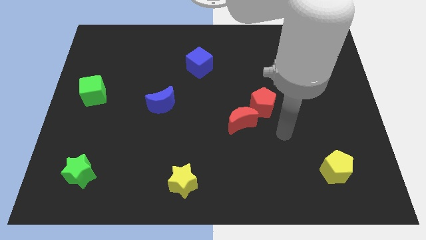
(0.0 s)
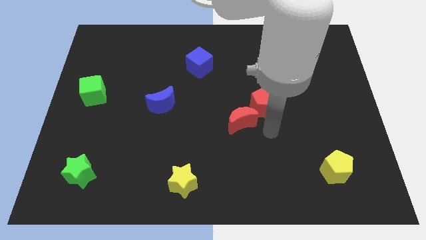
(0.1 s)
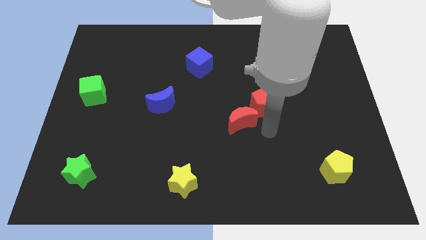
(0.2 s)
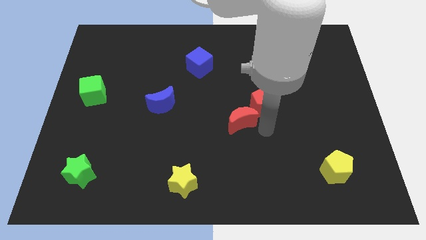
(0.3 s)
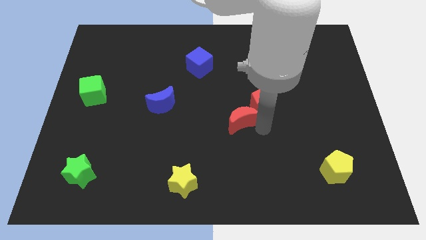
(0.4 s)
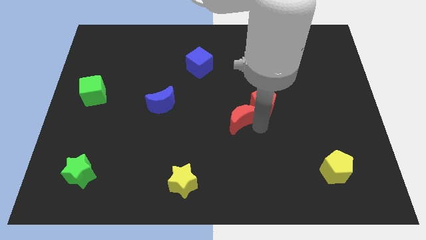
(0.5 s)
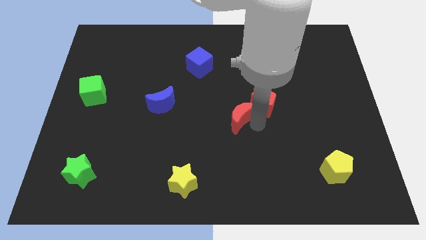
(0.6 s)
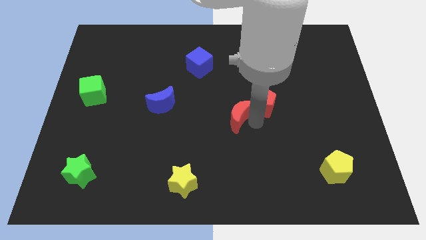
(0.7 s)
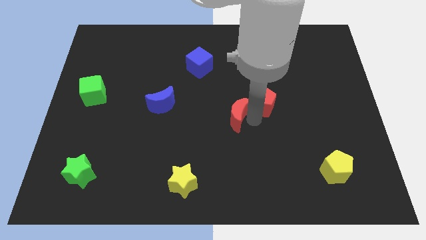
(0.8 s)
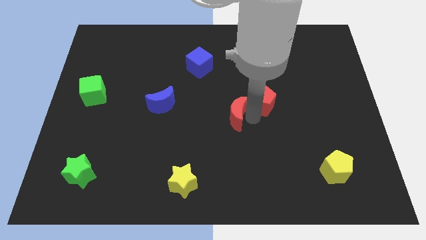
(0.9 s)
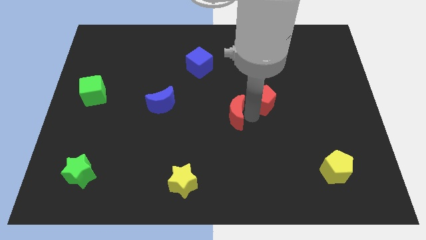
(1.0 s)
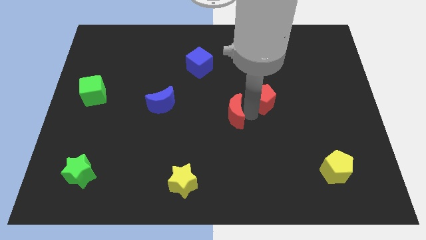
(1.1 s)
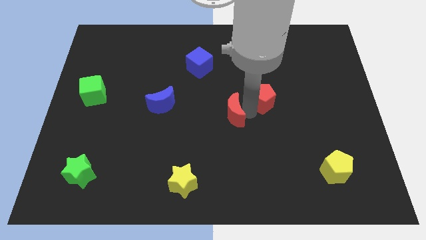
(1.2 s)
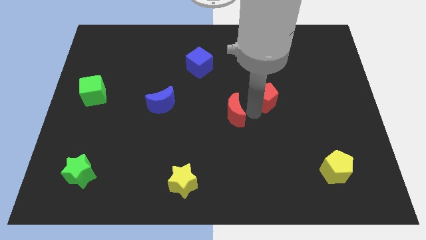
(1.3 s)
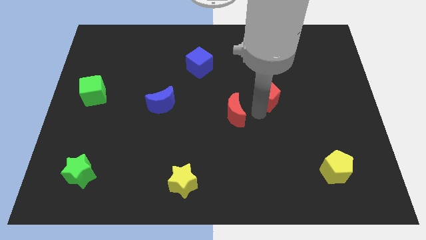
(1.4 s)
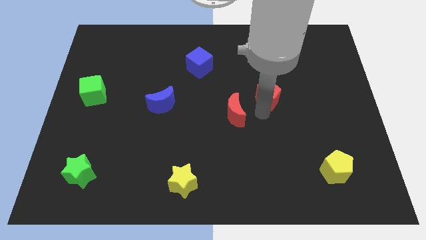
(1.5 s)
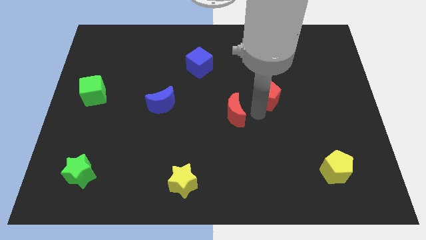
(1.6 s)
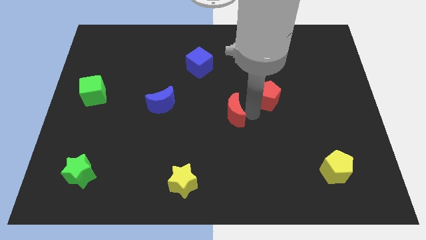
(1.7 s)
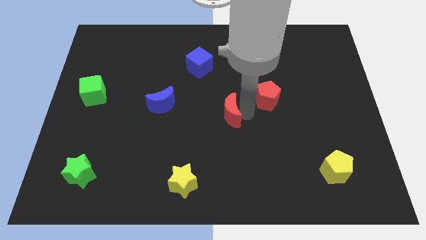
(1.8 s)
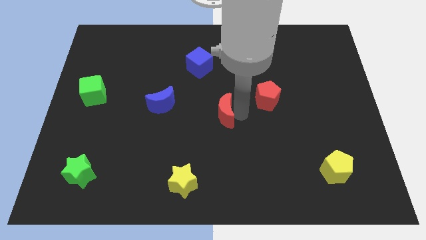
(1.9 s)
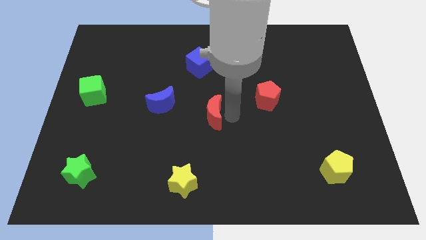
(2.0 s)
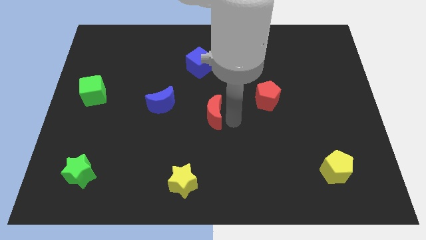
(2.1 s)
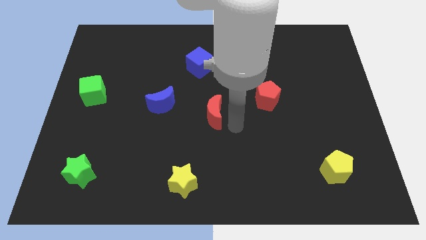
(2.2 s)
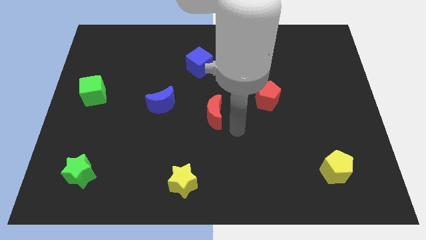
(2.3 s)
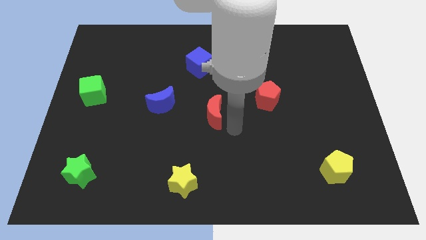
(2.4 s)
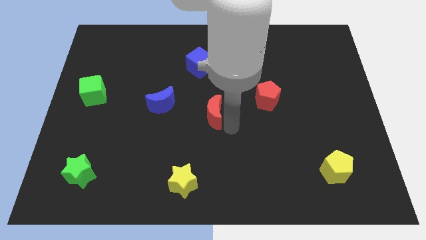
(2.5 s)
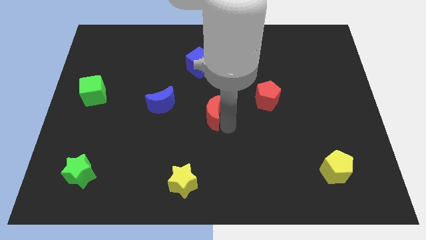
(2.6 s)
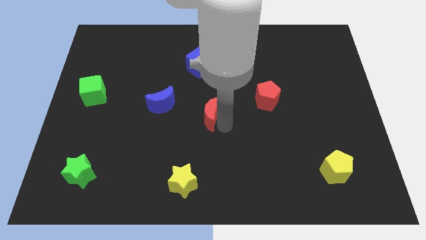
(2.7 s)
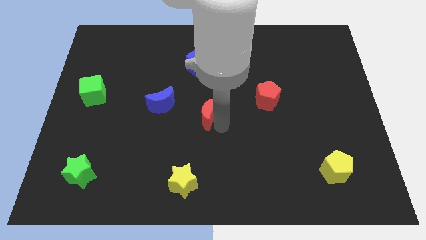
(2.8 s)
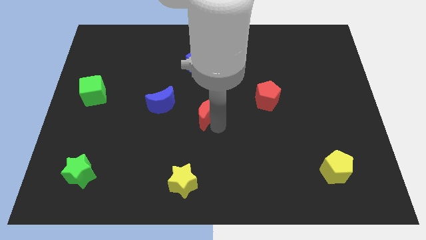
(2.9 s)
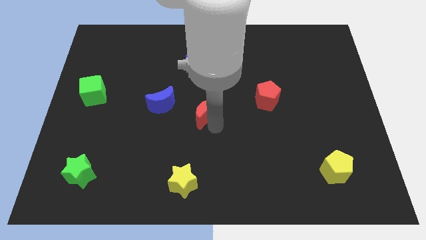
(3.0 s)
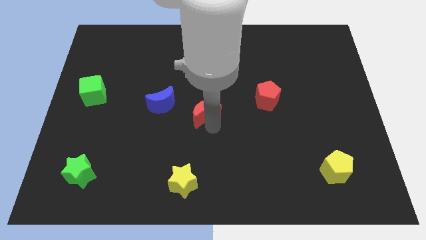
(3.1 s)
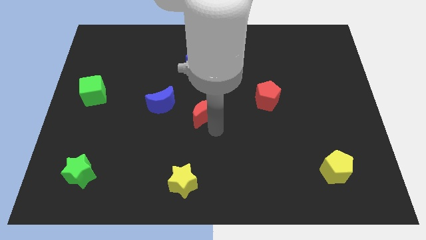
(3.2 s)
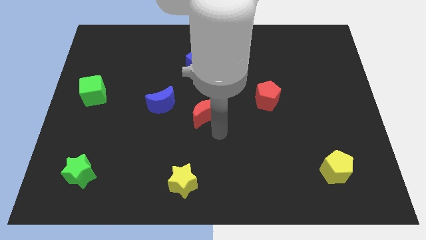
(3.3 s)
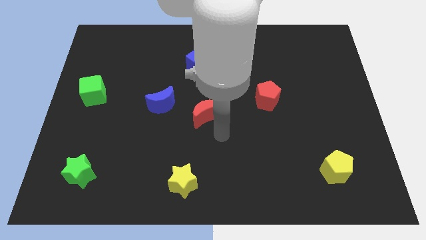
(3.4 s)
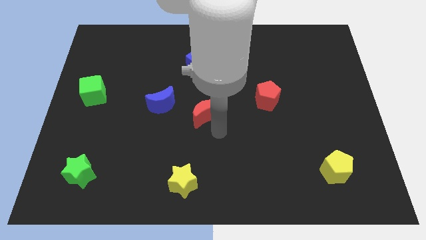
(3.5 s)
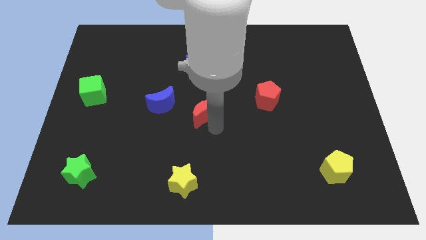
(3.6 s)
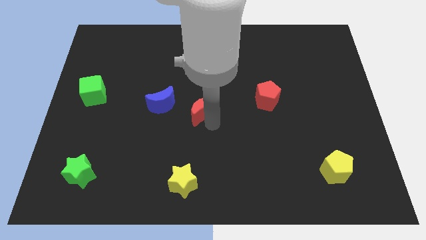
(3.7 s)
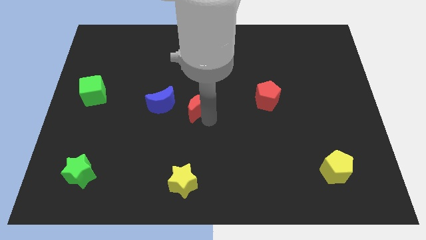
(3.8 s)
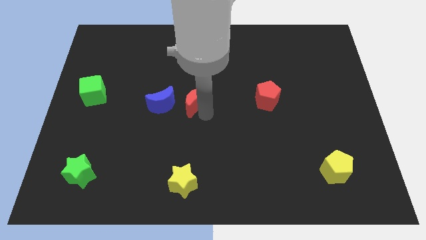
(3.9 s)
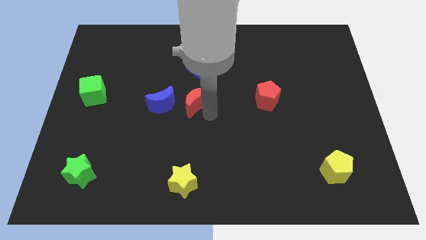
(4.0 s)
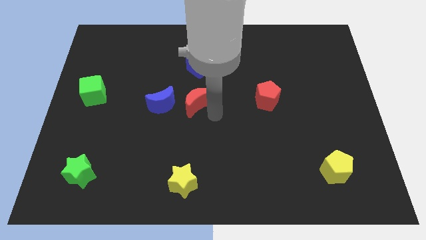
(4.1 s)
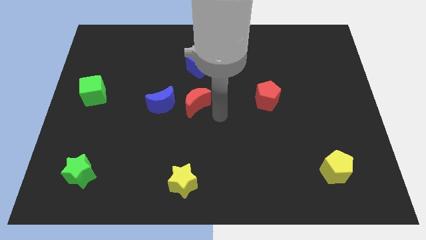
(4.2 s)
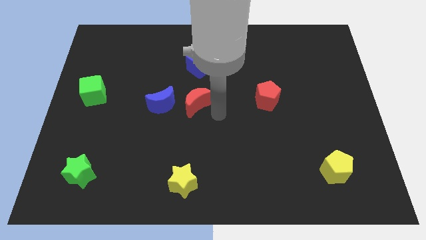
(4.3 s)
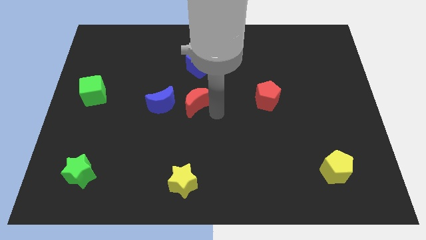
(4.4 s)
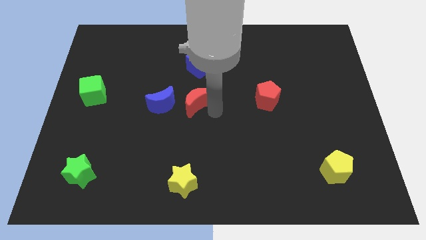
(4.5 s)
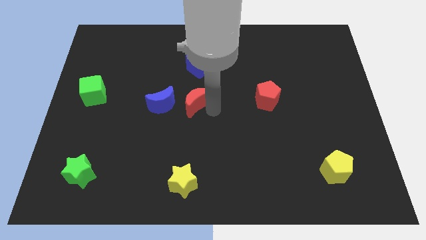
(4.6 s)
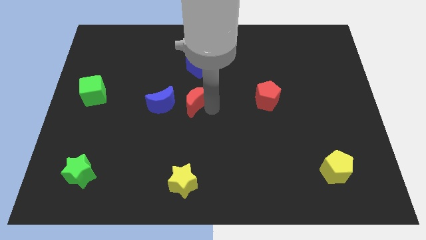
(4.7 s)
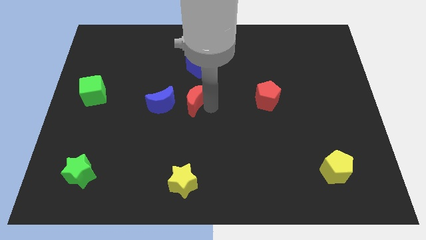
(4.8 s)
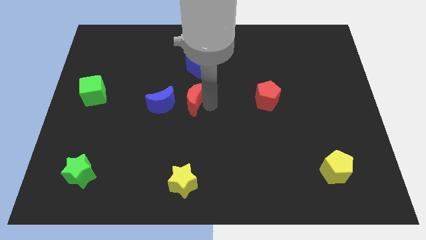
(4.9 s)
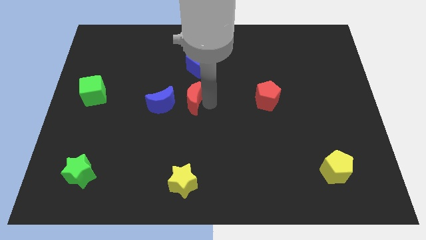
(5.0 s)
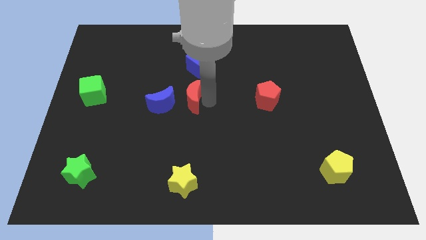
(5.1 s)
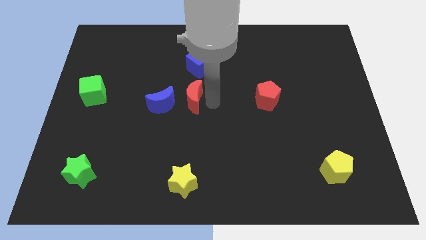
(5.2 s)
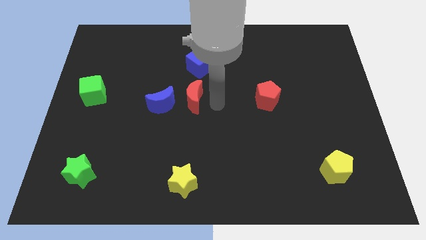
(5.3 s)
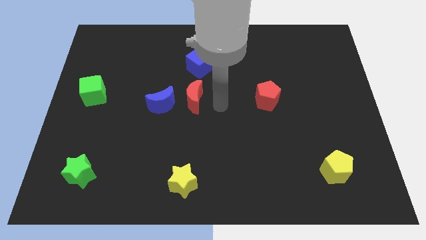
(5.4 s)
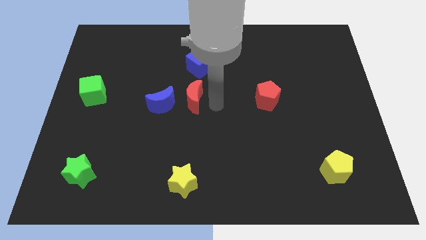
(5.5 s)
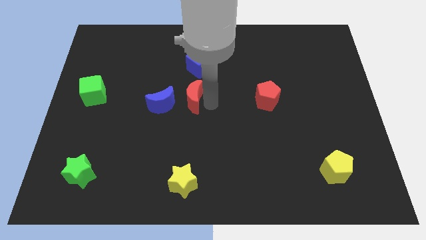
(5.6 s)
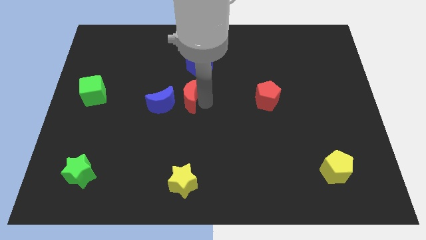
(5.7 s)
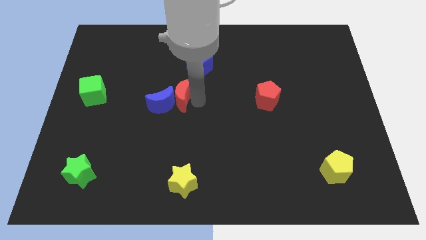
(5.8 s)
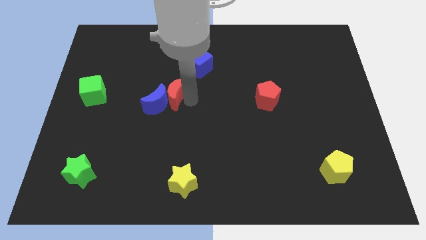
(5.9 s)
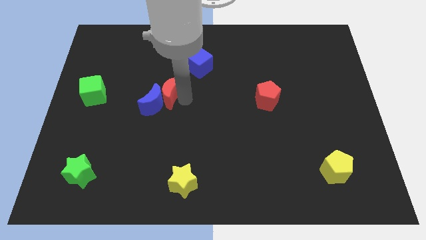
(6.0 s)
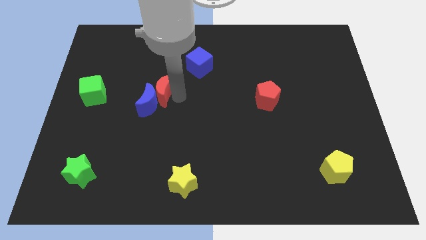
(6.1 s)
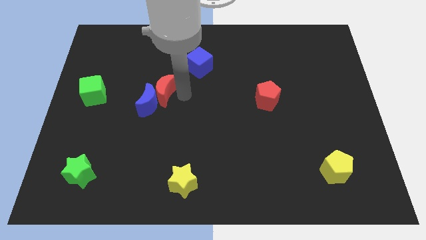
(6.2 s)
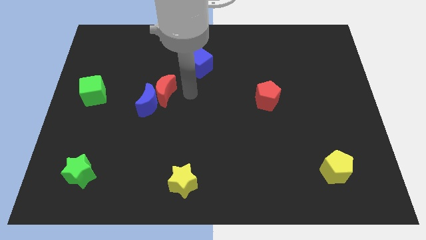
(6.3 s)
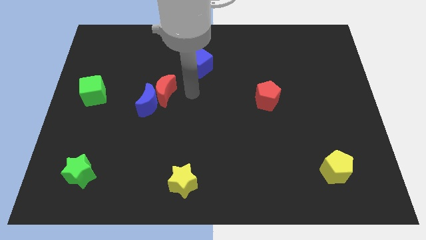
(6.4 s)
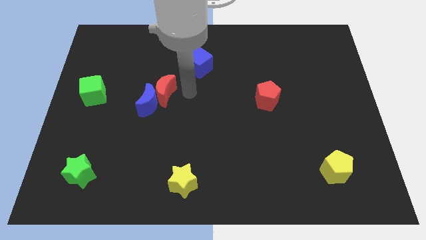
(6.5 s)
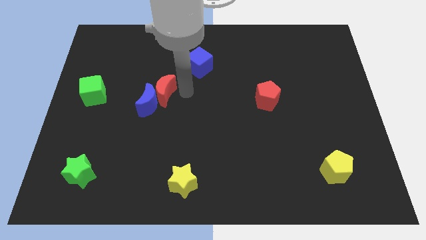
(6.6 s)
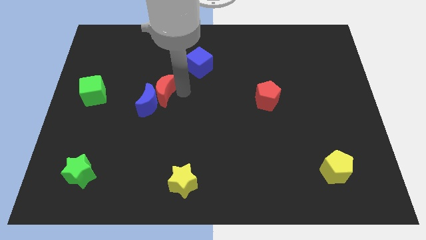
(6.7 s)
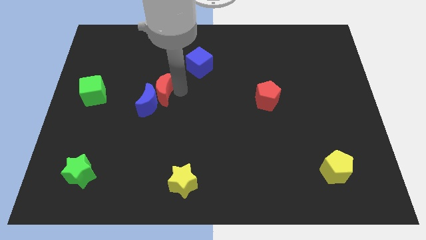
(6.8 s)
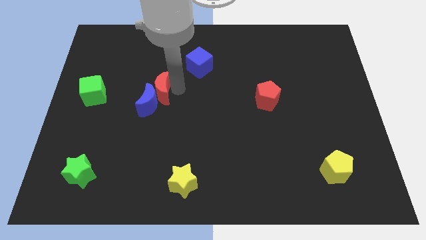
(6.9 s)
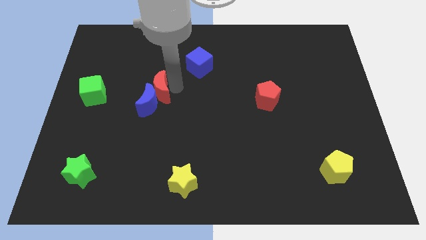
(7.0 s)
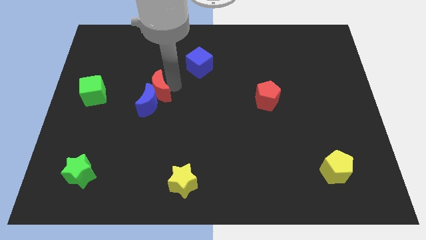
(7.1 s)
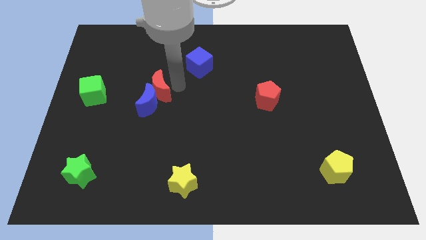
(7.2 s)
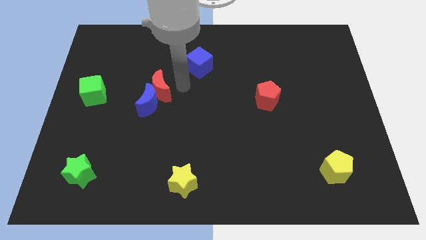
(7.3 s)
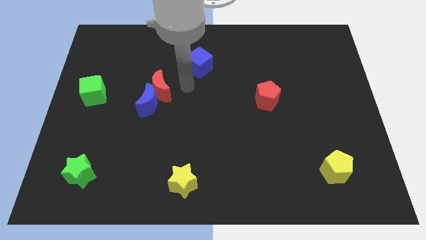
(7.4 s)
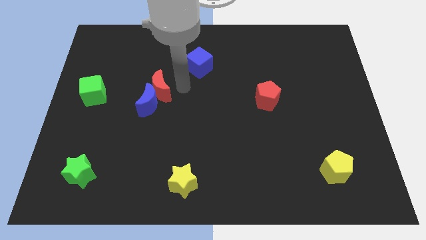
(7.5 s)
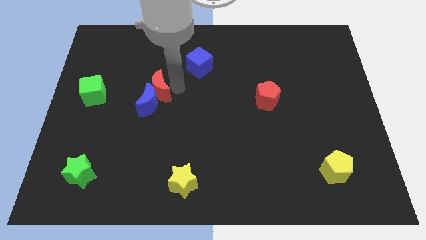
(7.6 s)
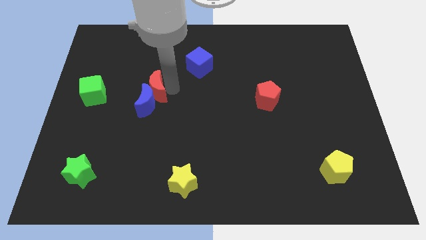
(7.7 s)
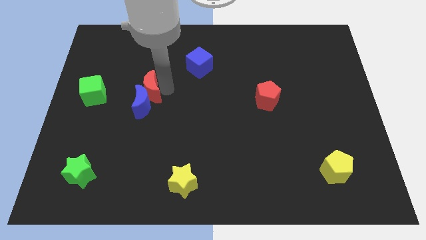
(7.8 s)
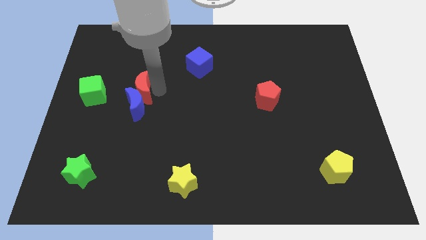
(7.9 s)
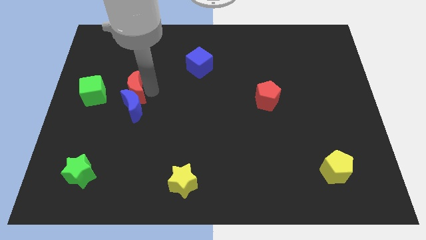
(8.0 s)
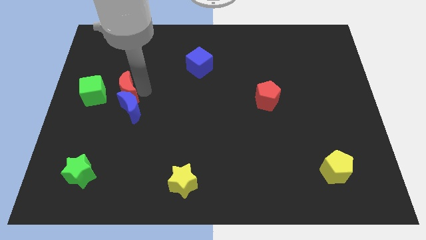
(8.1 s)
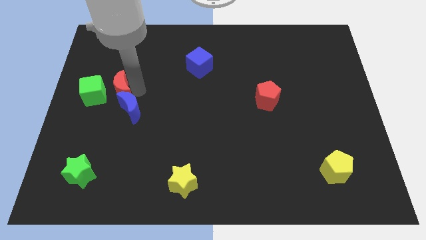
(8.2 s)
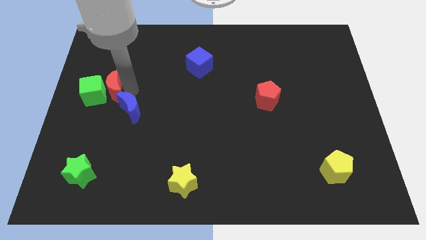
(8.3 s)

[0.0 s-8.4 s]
put the red moon next to the green cube
